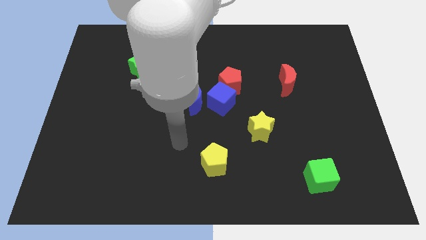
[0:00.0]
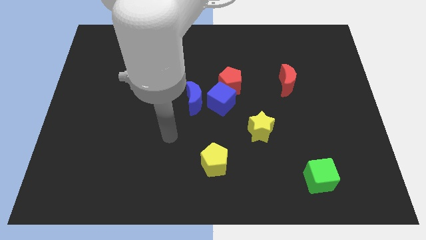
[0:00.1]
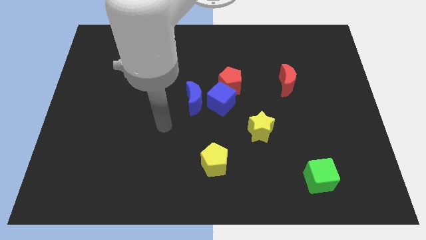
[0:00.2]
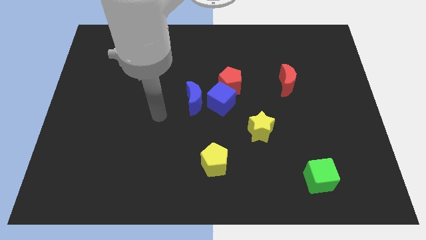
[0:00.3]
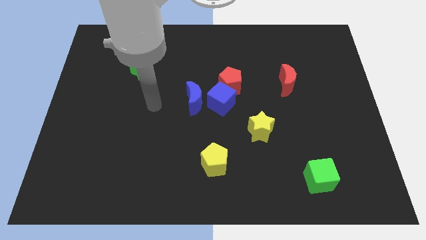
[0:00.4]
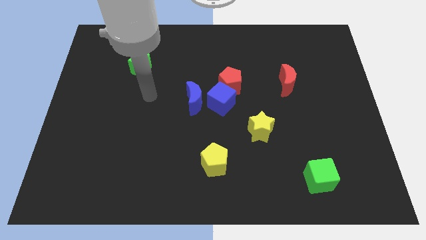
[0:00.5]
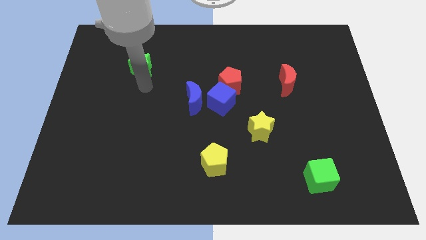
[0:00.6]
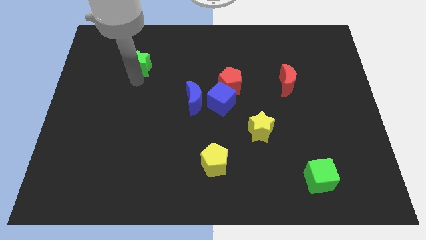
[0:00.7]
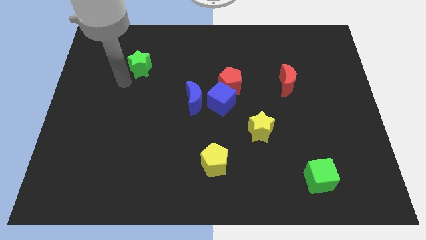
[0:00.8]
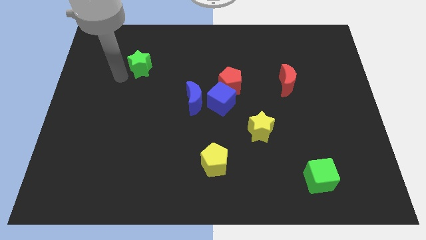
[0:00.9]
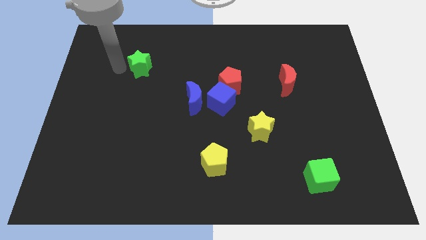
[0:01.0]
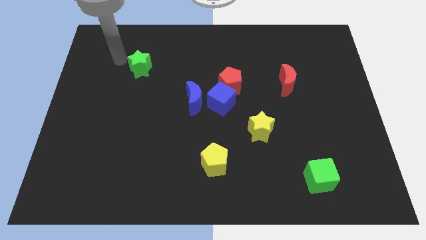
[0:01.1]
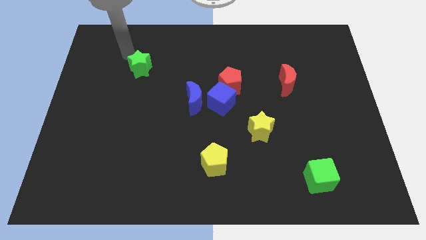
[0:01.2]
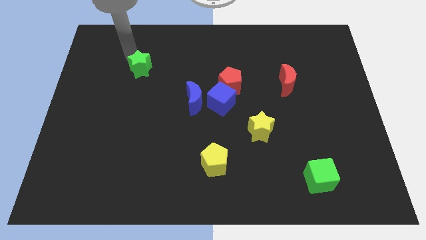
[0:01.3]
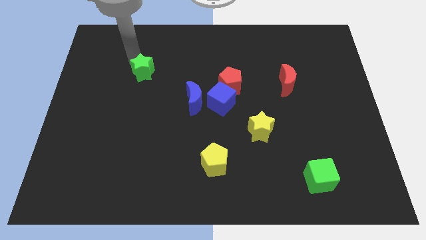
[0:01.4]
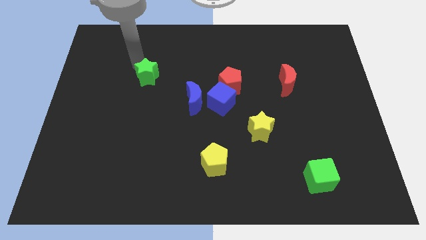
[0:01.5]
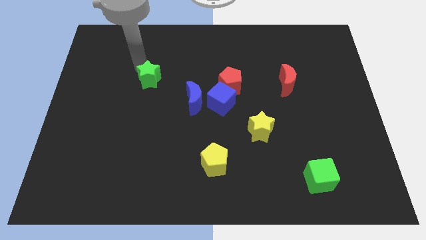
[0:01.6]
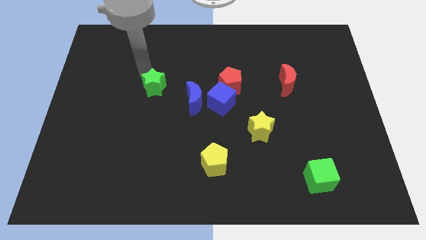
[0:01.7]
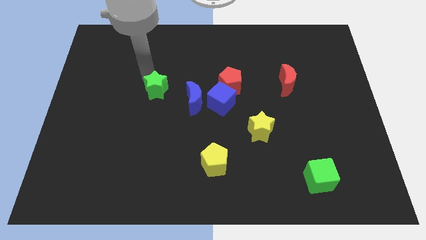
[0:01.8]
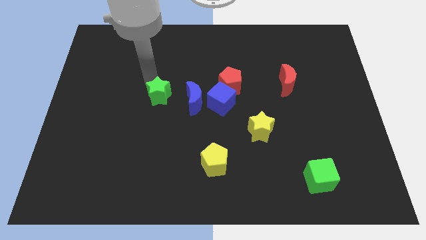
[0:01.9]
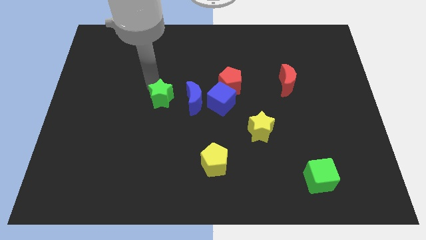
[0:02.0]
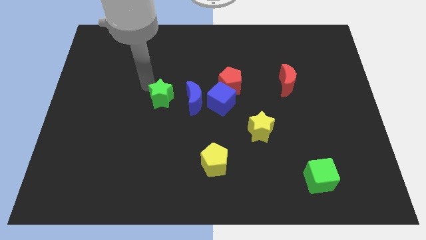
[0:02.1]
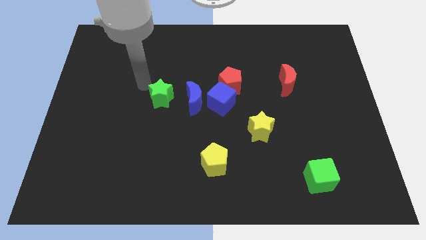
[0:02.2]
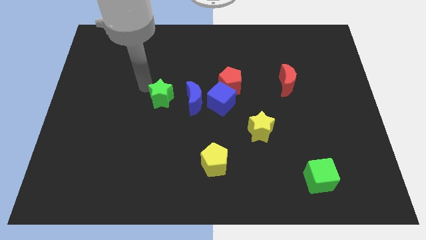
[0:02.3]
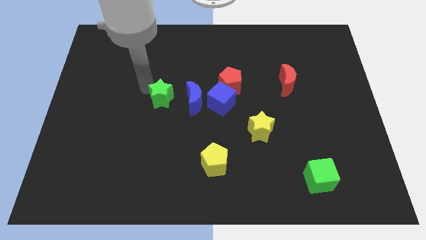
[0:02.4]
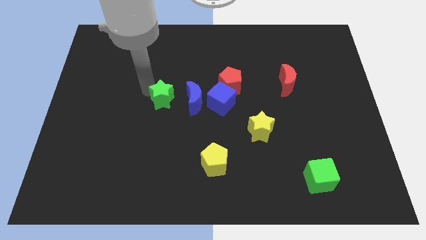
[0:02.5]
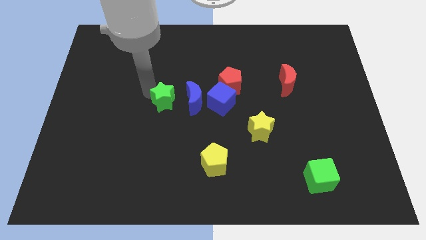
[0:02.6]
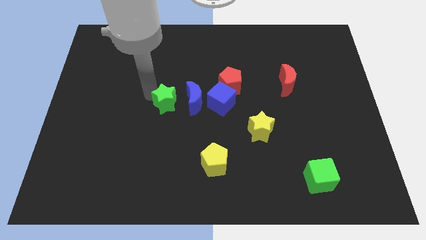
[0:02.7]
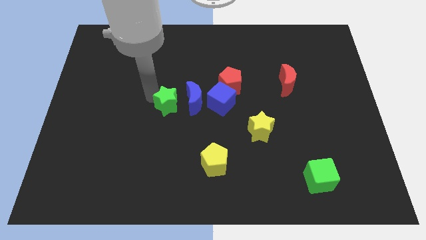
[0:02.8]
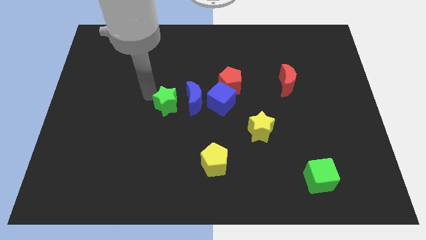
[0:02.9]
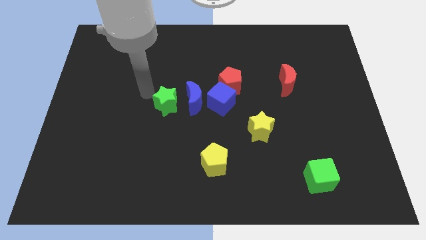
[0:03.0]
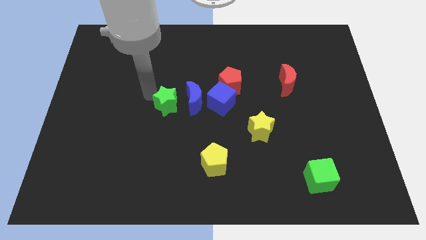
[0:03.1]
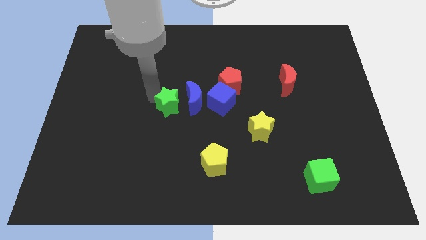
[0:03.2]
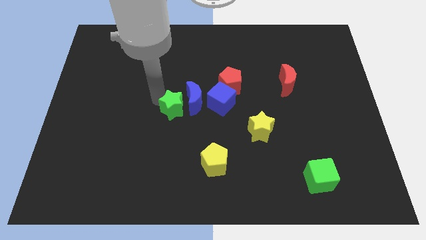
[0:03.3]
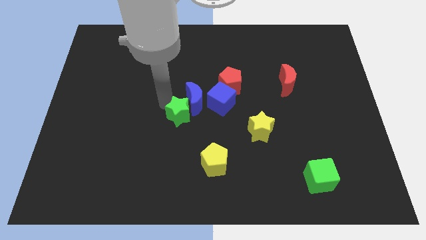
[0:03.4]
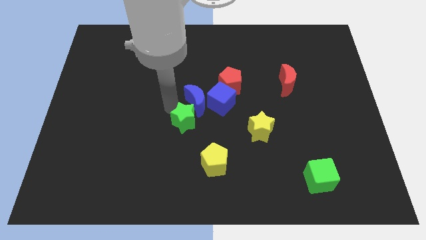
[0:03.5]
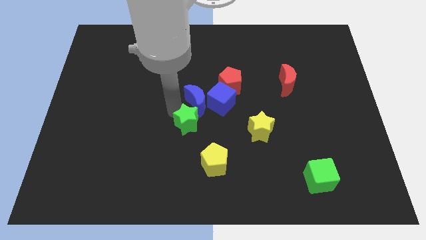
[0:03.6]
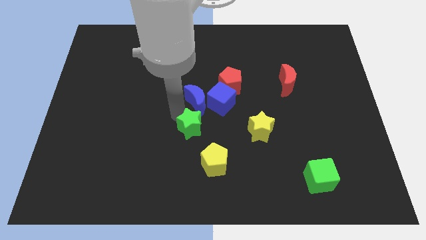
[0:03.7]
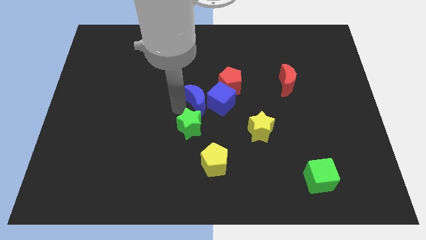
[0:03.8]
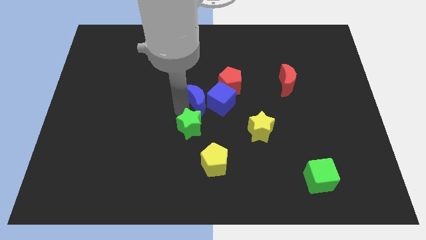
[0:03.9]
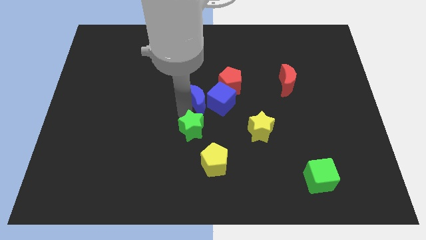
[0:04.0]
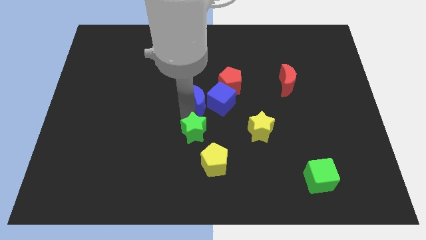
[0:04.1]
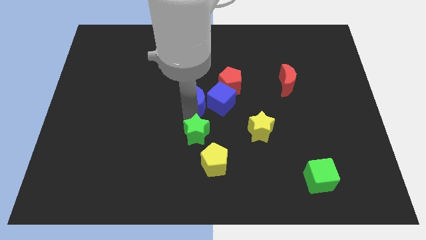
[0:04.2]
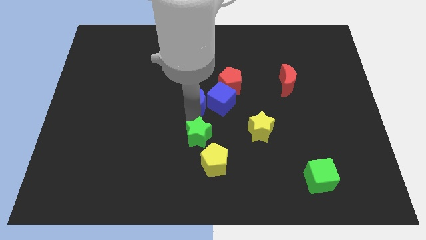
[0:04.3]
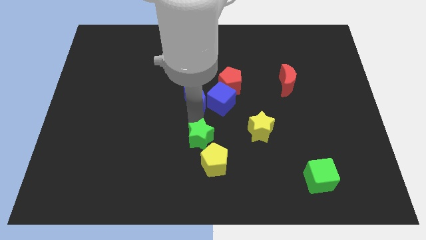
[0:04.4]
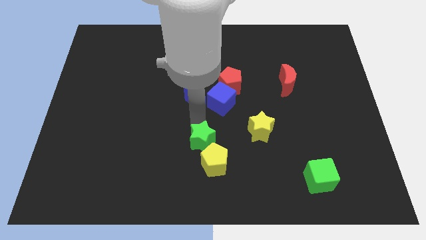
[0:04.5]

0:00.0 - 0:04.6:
move the green star to the yellow pentagon

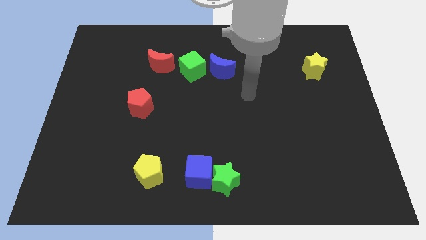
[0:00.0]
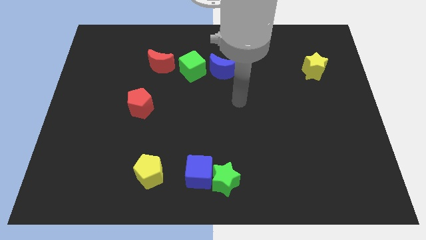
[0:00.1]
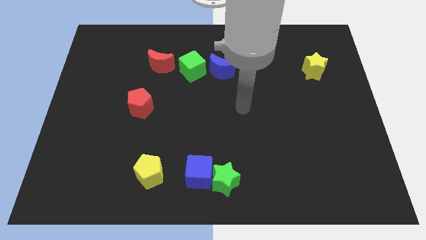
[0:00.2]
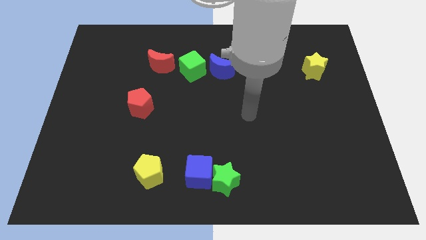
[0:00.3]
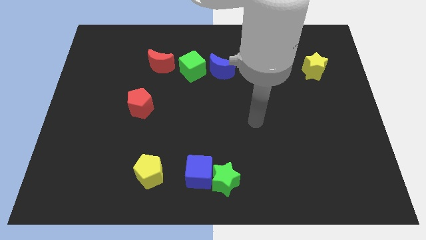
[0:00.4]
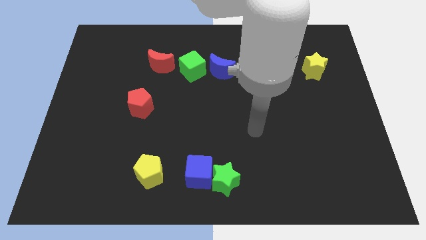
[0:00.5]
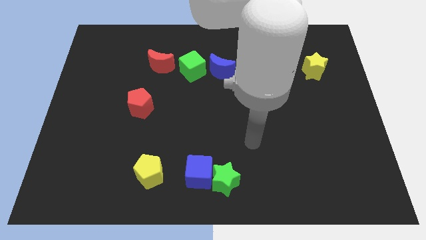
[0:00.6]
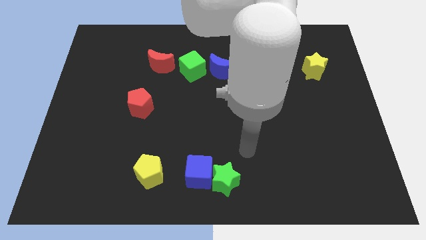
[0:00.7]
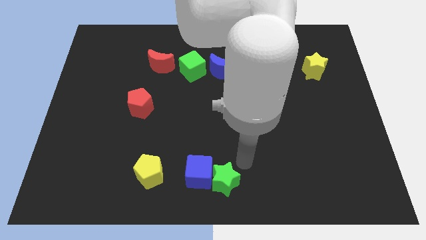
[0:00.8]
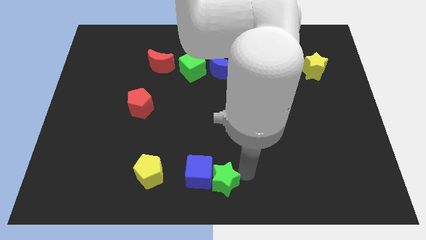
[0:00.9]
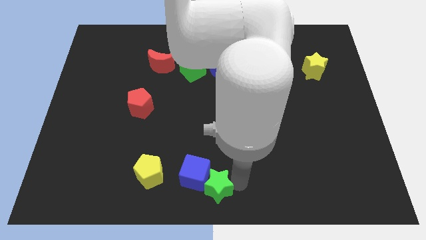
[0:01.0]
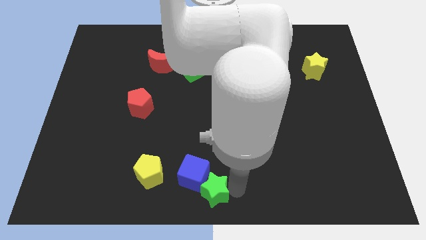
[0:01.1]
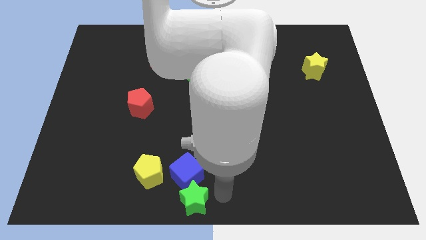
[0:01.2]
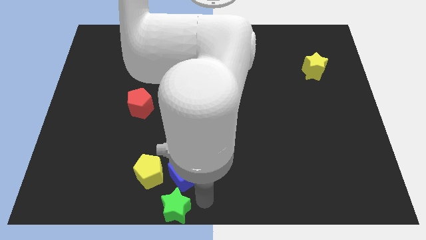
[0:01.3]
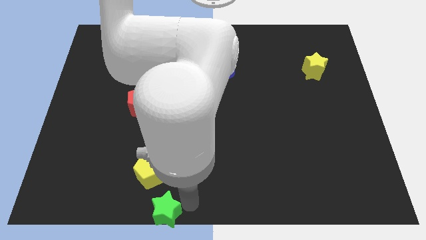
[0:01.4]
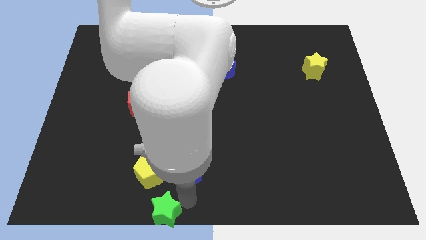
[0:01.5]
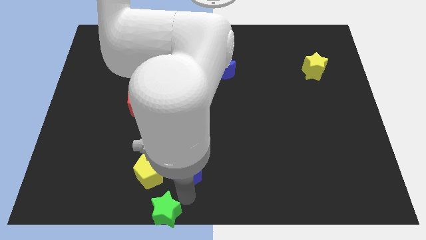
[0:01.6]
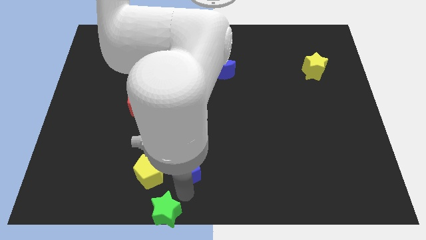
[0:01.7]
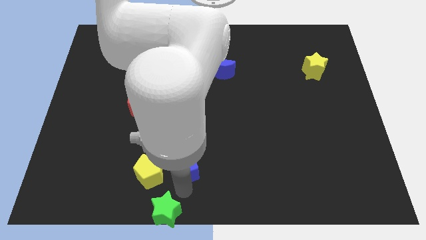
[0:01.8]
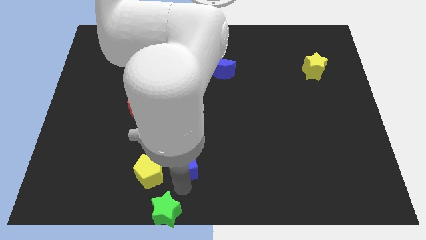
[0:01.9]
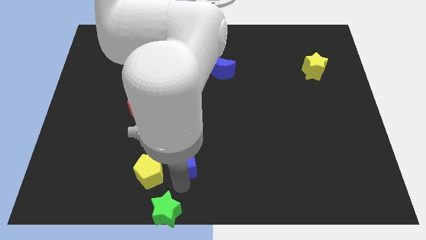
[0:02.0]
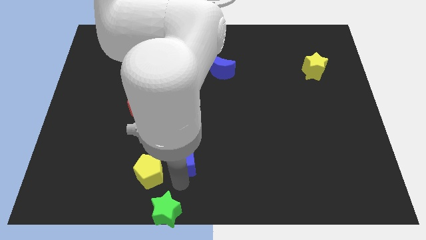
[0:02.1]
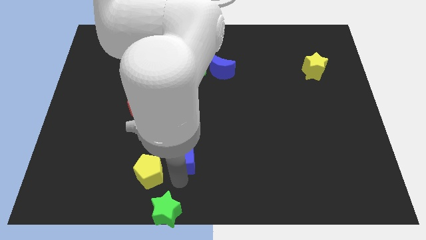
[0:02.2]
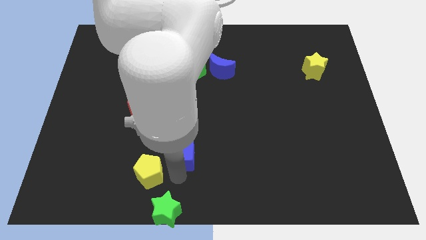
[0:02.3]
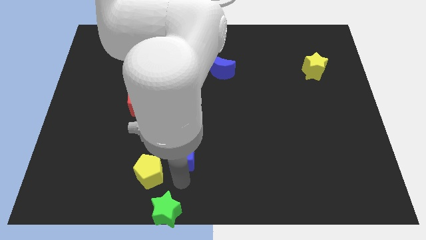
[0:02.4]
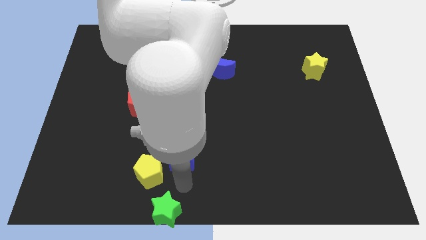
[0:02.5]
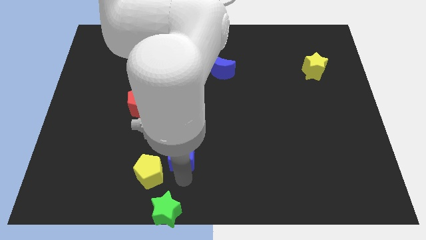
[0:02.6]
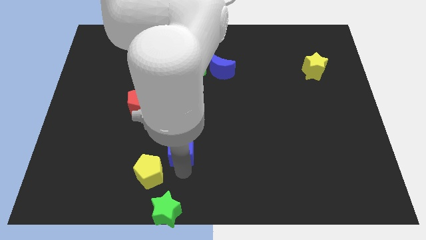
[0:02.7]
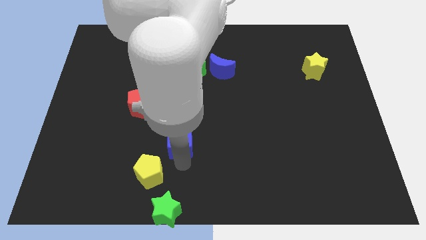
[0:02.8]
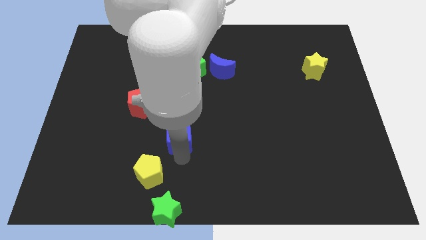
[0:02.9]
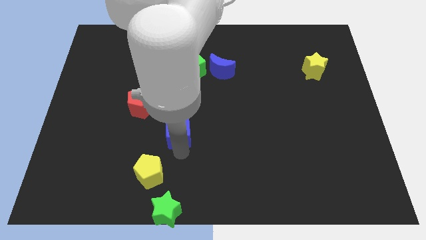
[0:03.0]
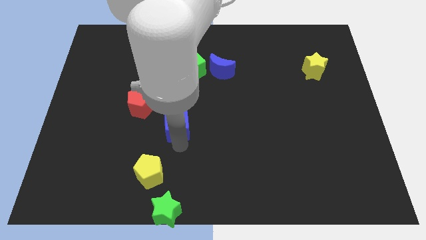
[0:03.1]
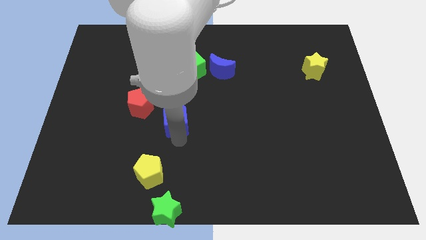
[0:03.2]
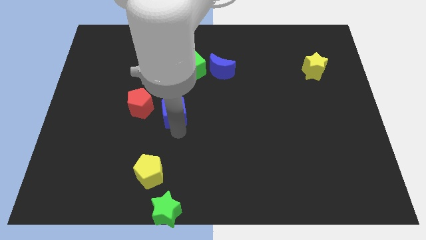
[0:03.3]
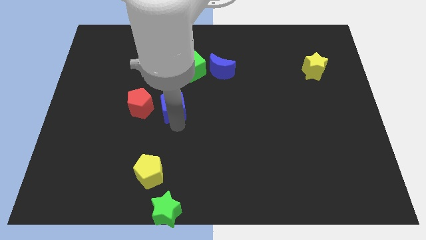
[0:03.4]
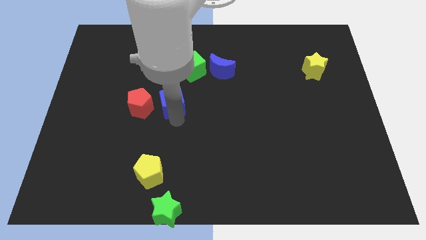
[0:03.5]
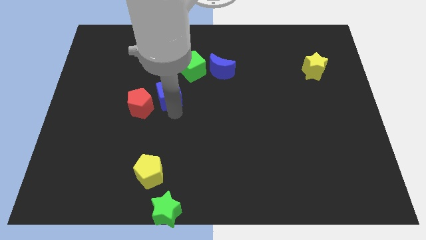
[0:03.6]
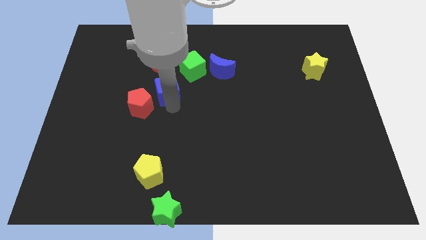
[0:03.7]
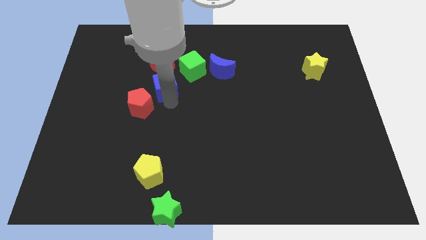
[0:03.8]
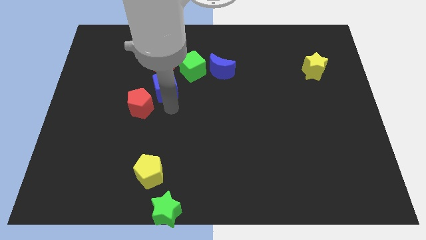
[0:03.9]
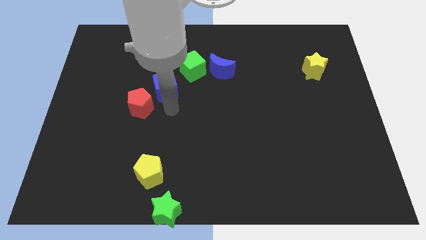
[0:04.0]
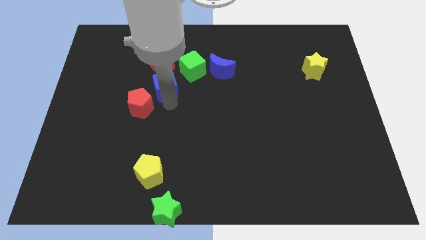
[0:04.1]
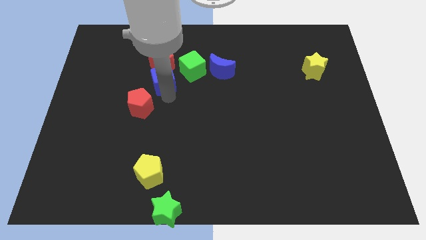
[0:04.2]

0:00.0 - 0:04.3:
move the blue cube to the red moon
